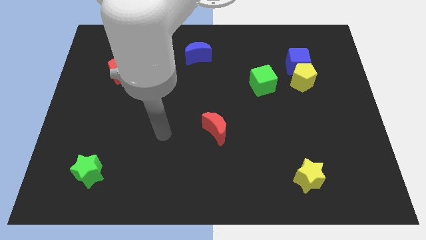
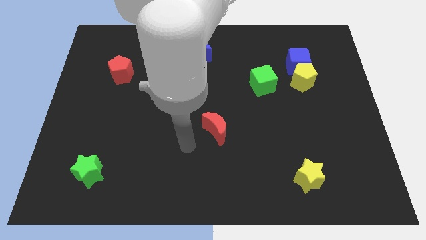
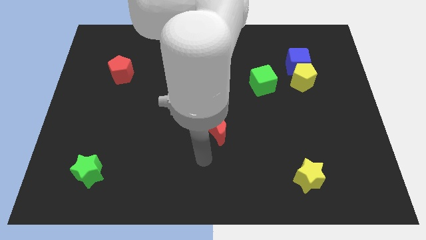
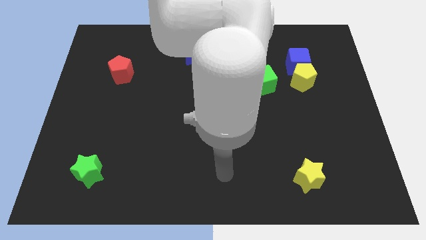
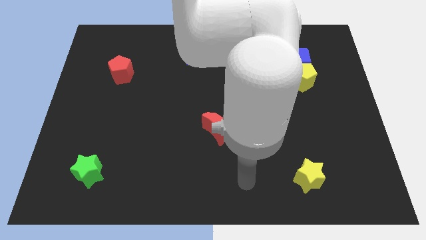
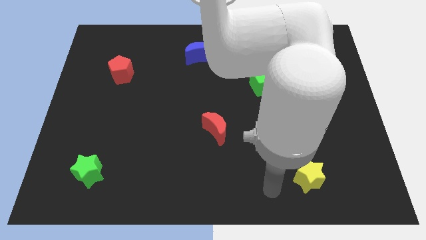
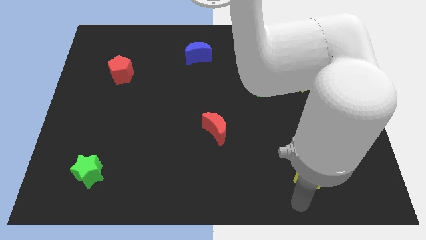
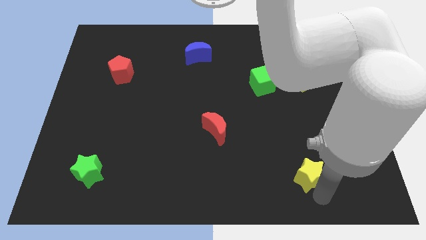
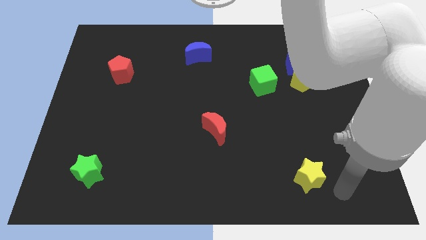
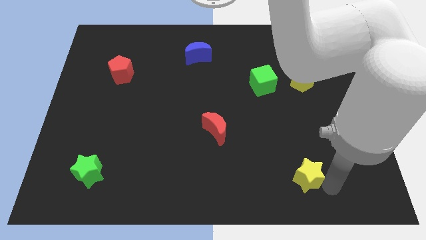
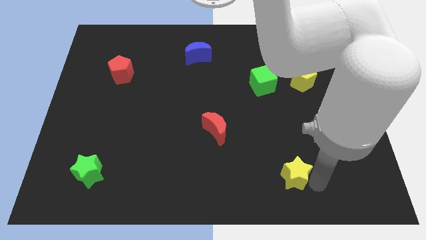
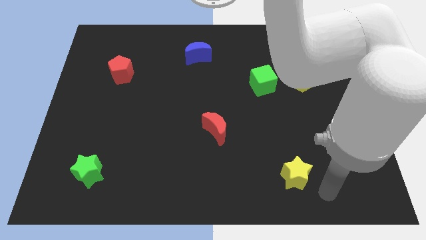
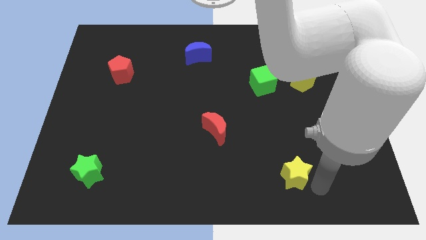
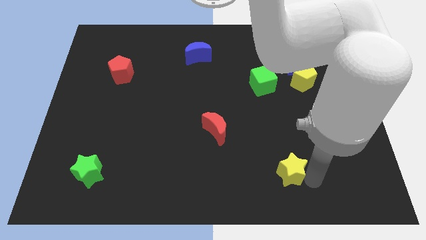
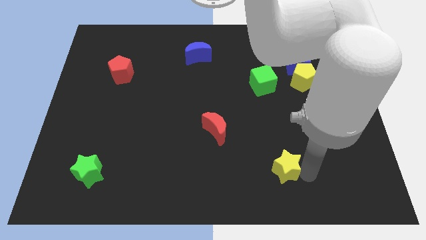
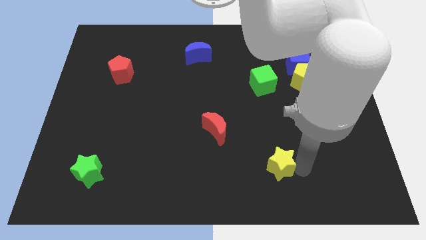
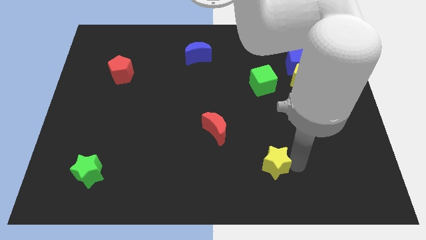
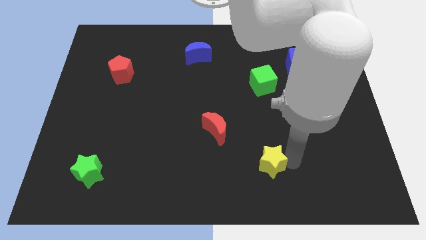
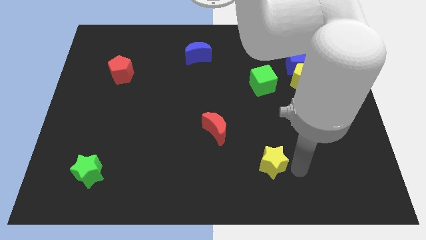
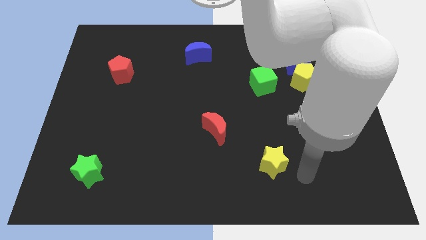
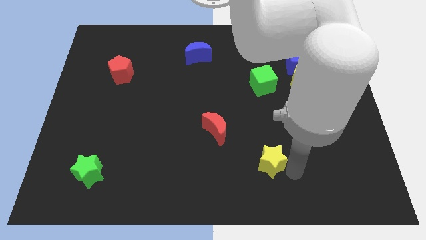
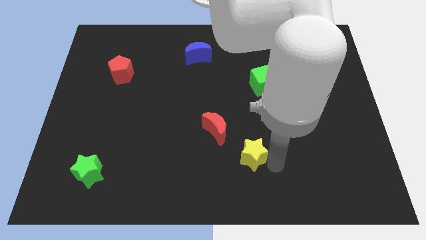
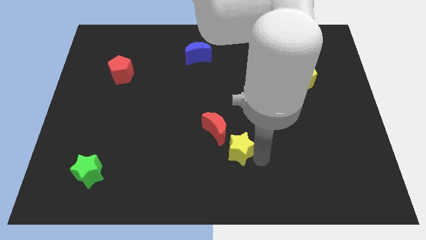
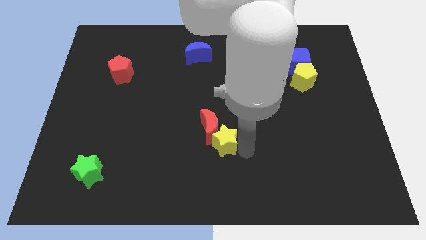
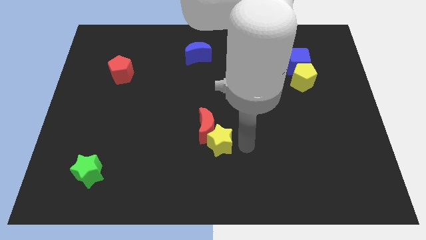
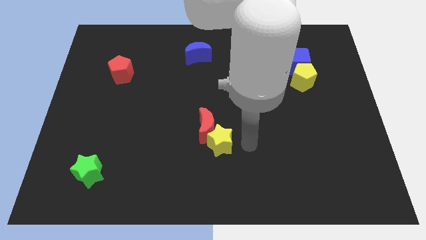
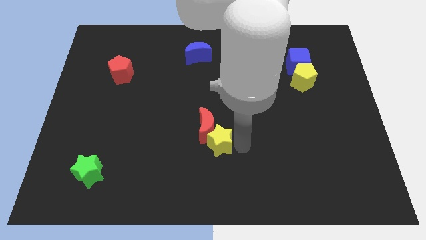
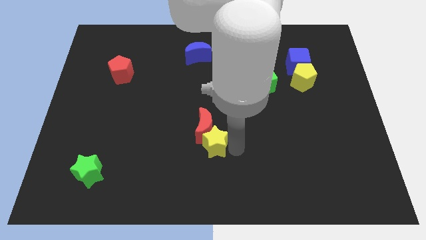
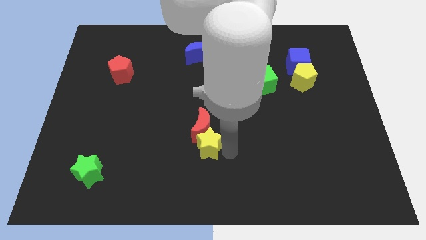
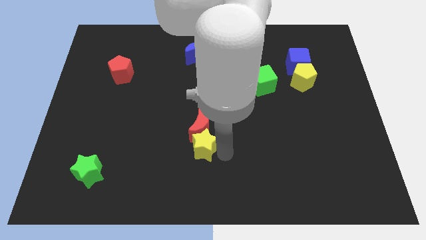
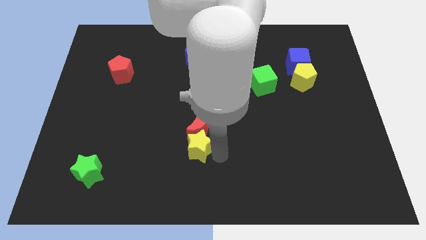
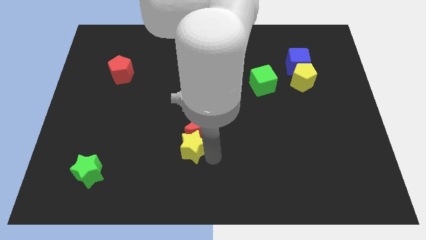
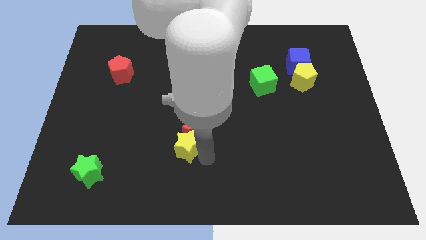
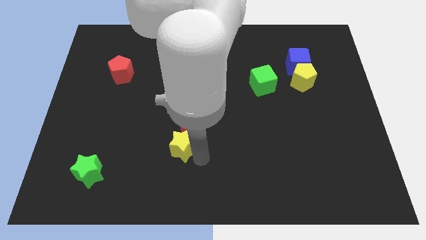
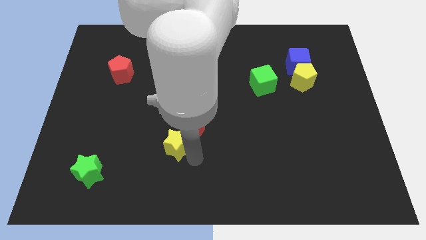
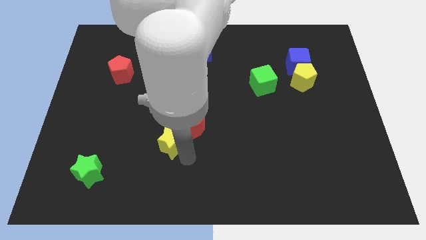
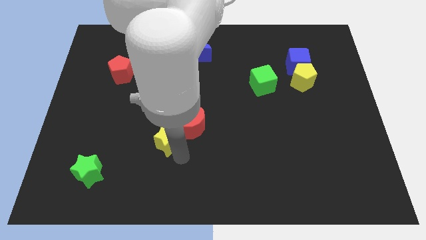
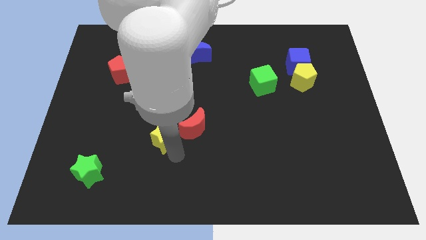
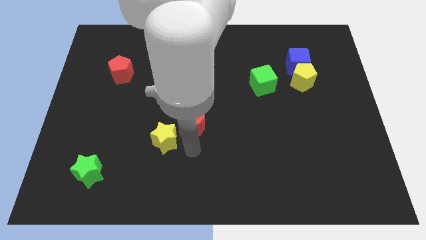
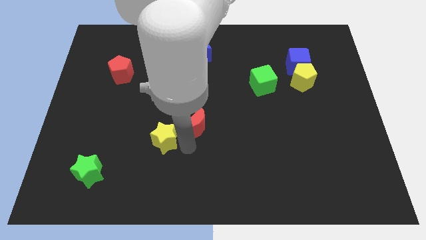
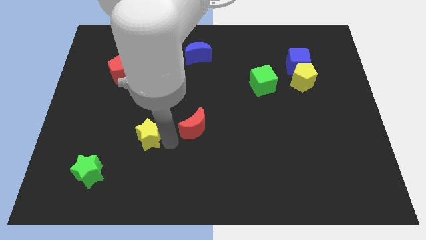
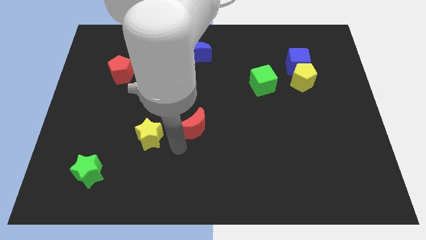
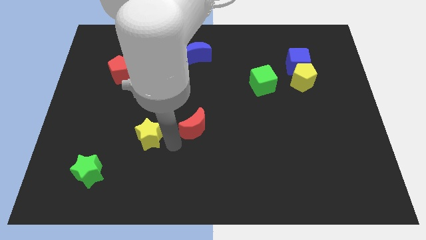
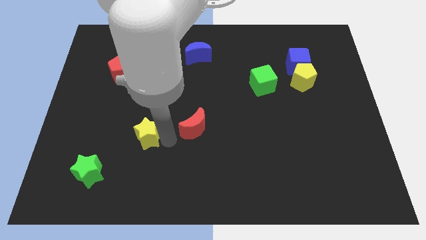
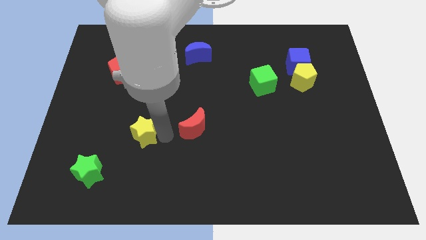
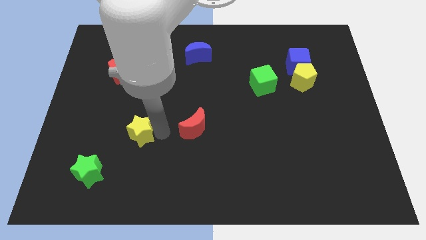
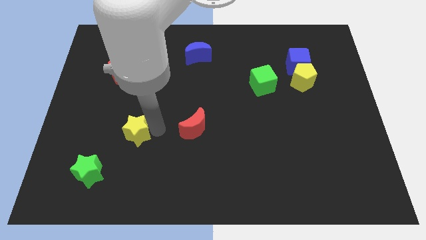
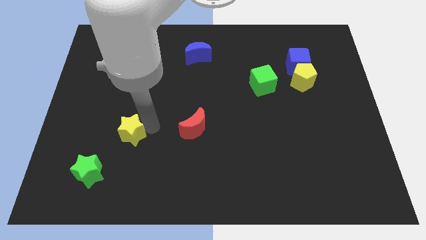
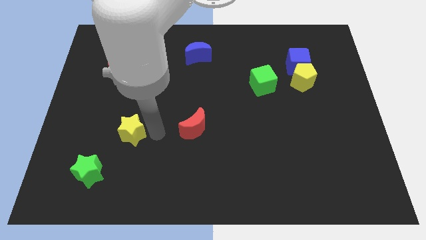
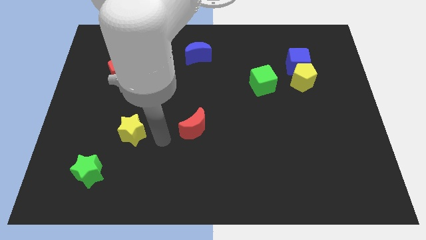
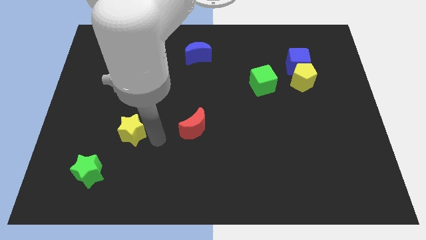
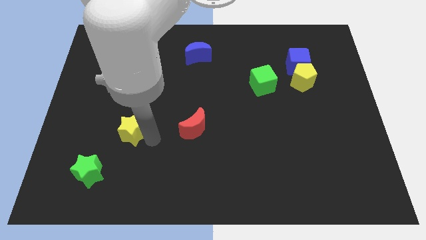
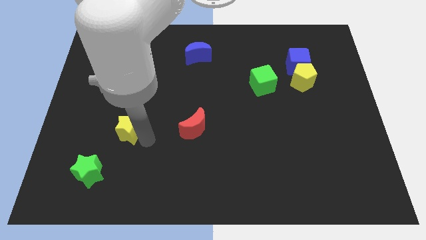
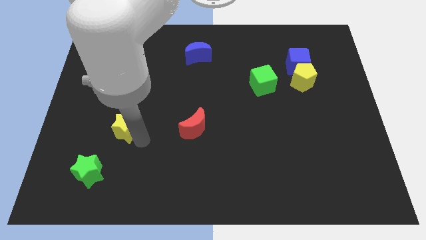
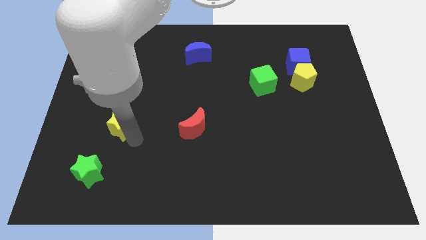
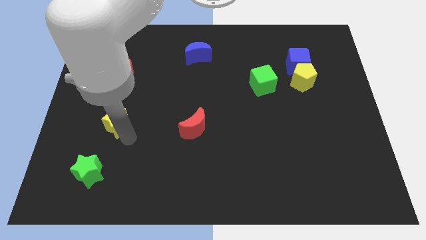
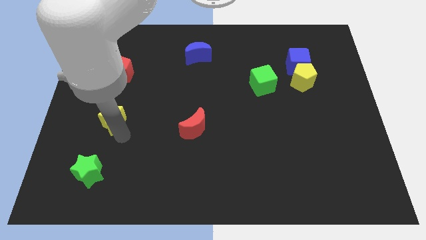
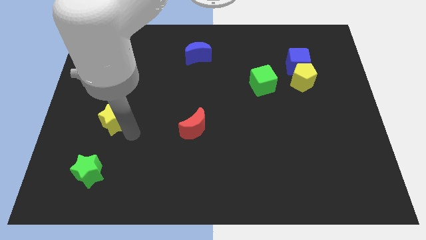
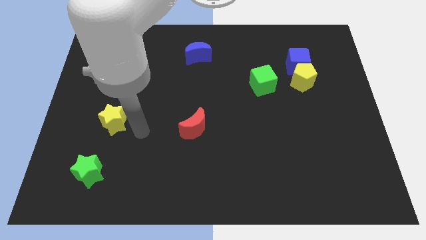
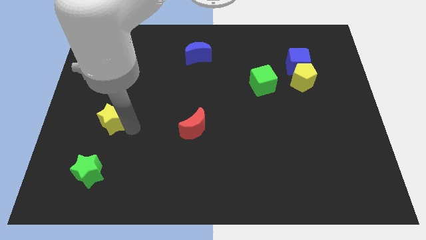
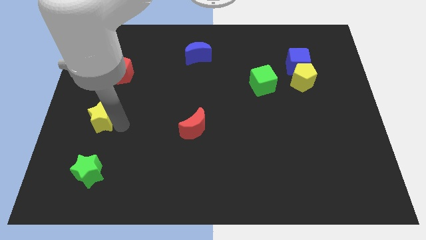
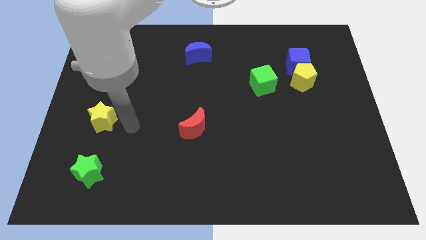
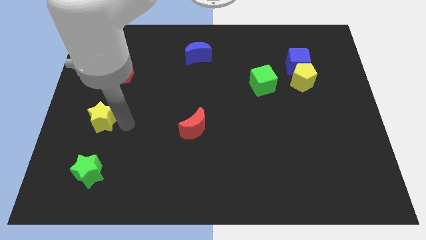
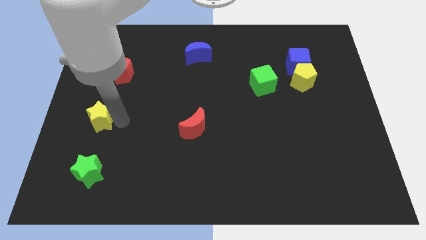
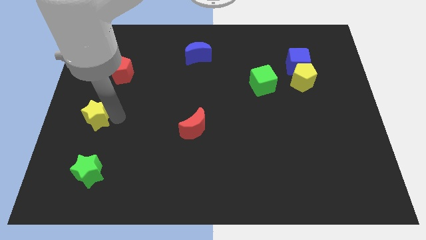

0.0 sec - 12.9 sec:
put the yellow star to the left side
